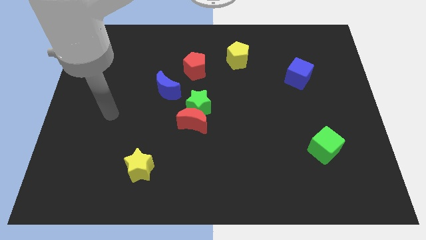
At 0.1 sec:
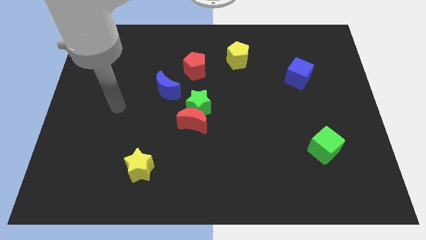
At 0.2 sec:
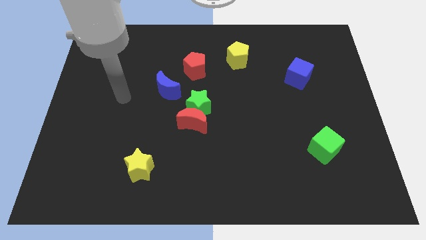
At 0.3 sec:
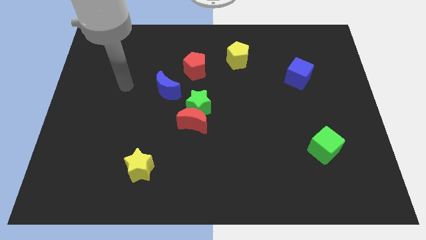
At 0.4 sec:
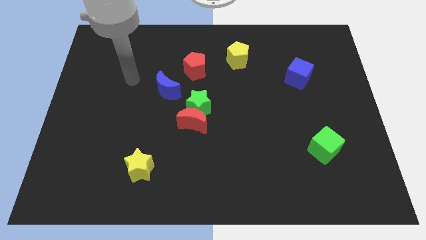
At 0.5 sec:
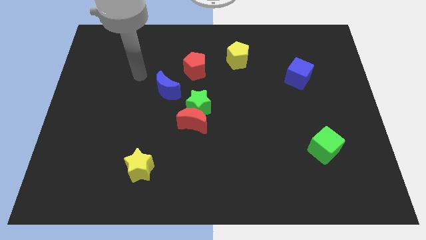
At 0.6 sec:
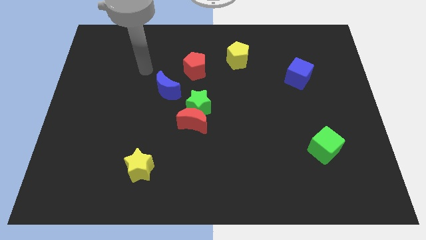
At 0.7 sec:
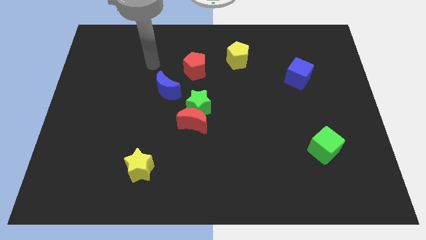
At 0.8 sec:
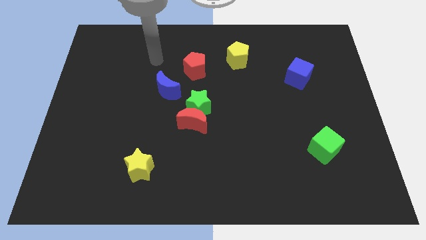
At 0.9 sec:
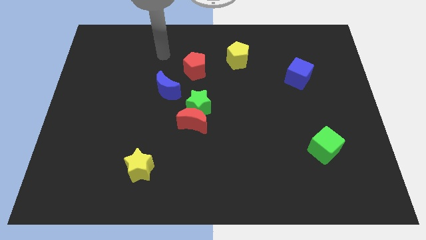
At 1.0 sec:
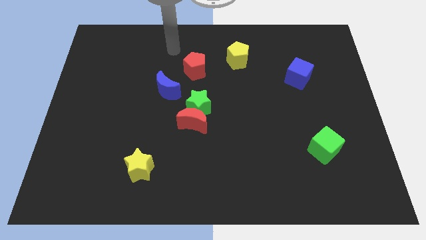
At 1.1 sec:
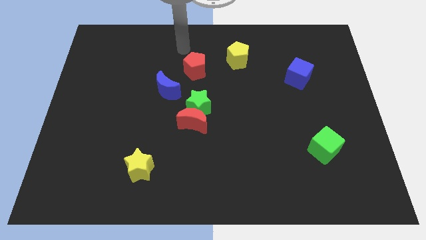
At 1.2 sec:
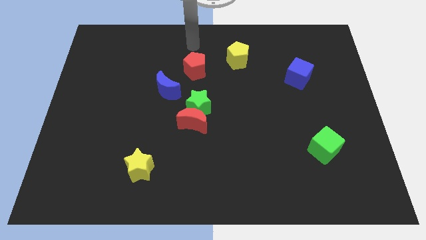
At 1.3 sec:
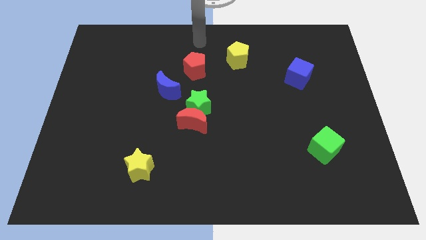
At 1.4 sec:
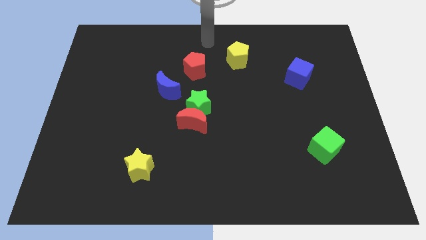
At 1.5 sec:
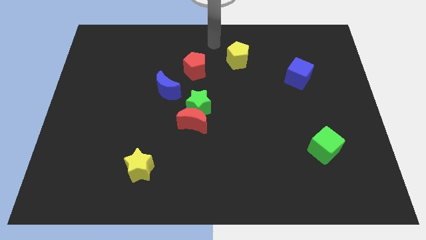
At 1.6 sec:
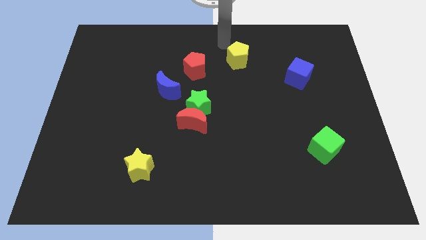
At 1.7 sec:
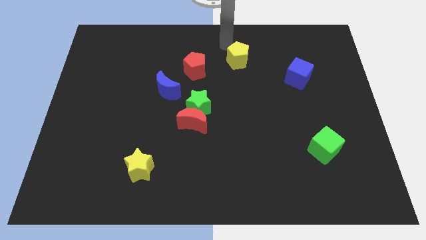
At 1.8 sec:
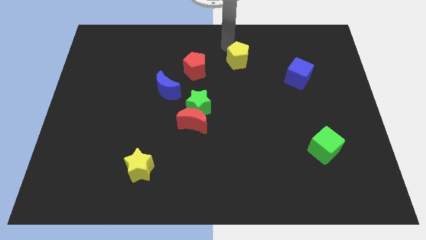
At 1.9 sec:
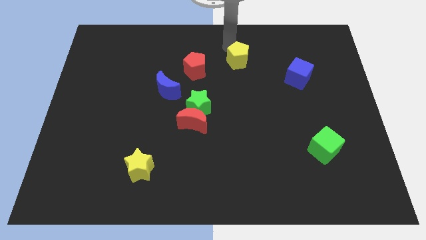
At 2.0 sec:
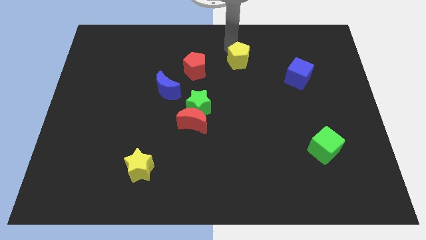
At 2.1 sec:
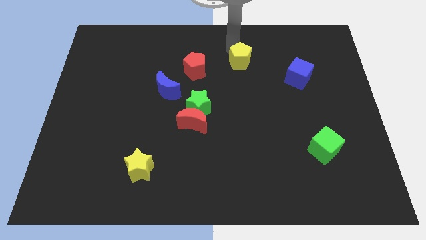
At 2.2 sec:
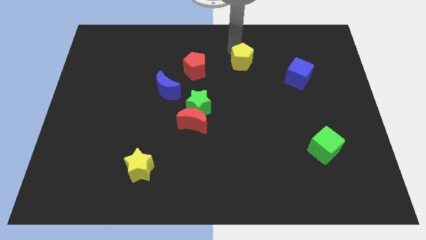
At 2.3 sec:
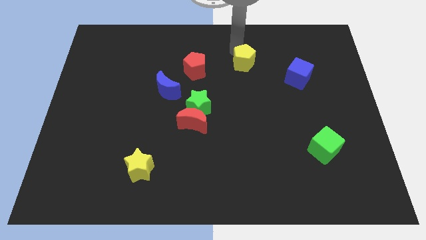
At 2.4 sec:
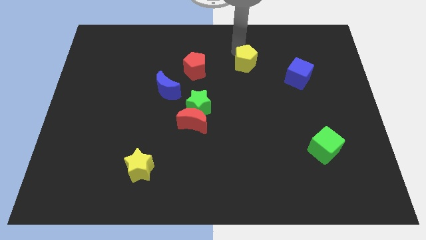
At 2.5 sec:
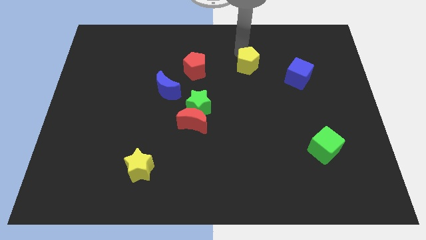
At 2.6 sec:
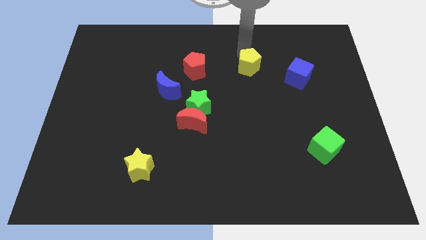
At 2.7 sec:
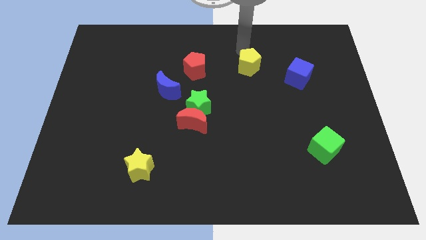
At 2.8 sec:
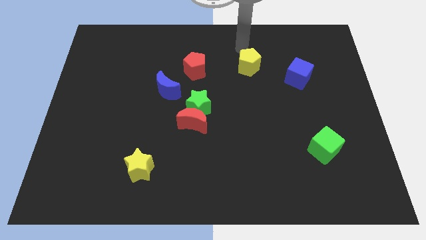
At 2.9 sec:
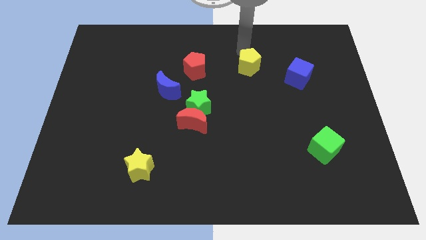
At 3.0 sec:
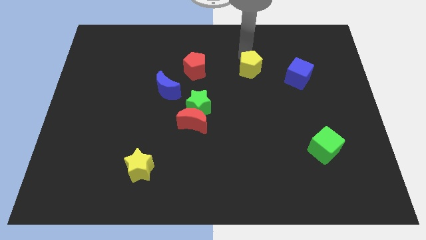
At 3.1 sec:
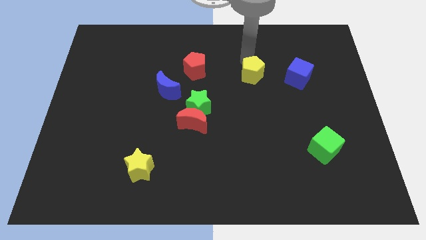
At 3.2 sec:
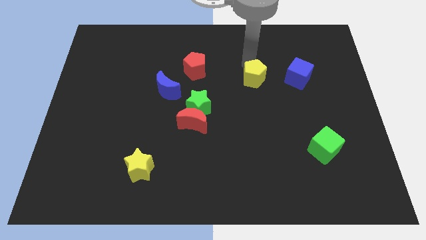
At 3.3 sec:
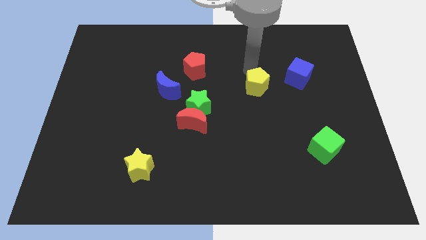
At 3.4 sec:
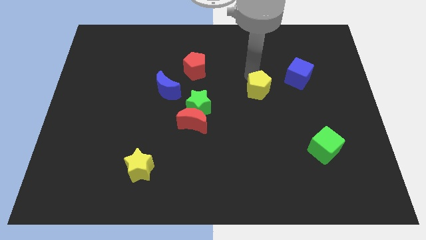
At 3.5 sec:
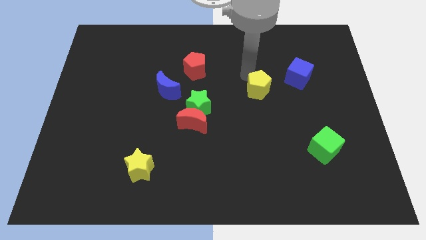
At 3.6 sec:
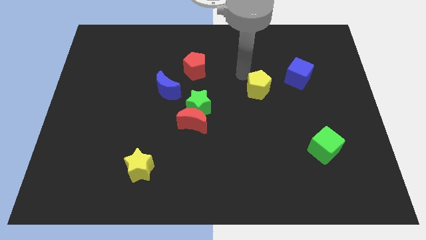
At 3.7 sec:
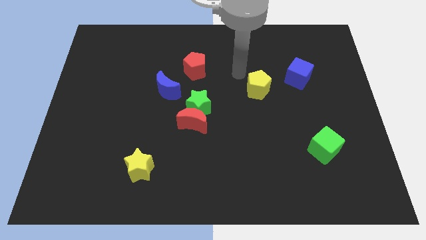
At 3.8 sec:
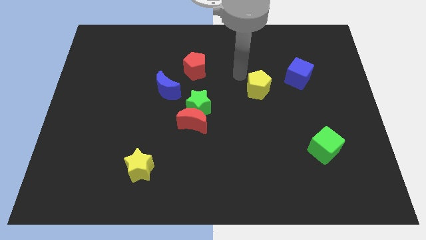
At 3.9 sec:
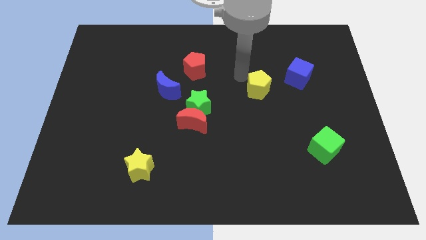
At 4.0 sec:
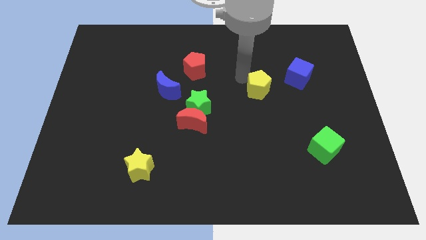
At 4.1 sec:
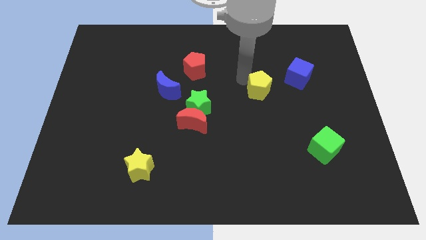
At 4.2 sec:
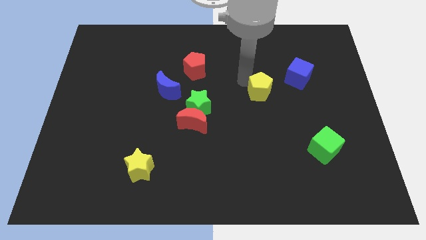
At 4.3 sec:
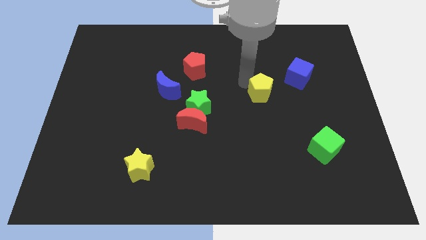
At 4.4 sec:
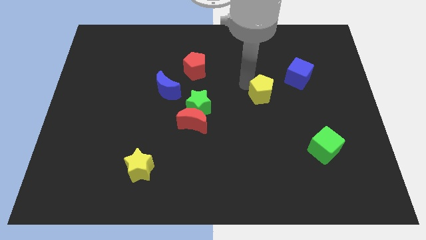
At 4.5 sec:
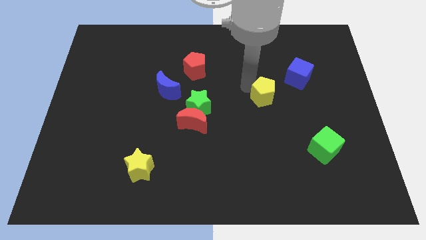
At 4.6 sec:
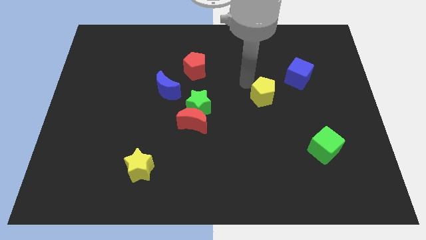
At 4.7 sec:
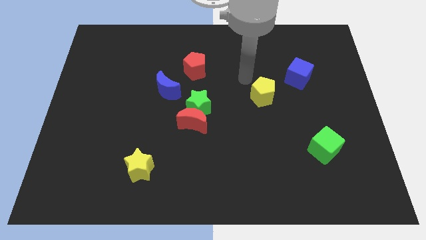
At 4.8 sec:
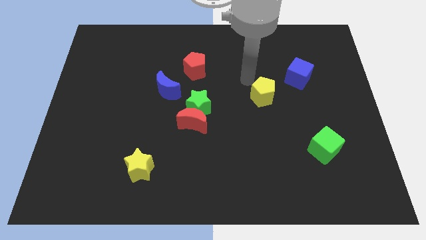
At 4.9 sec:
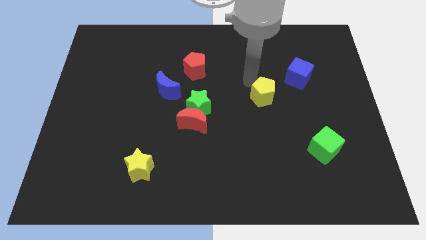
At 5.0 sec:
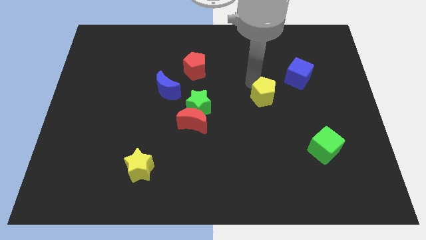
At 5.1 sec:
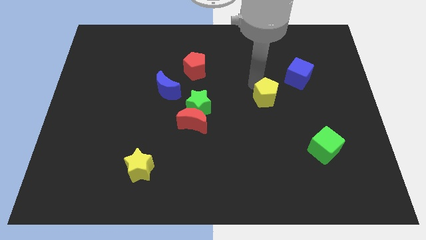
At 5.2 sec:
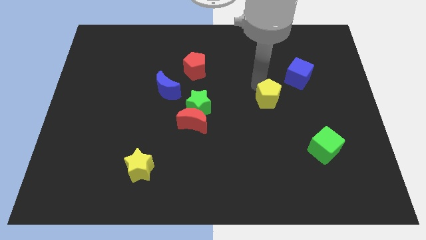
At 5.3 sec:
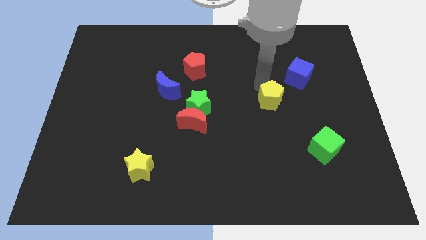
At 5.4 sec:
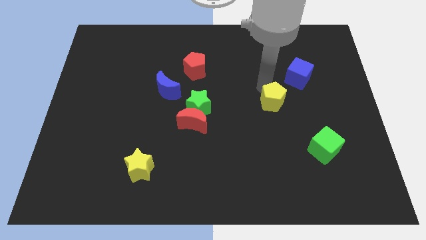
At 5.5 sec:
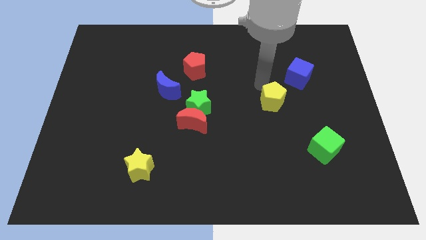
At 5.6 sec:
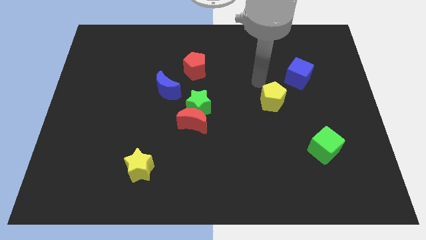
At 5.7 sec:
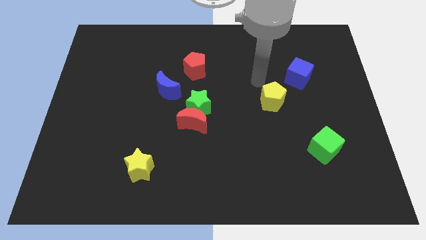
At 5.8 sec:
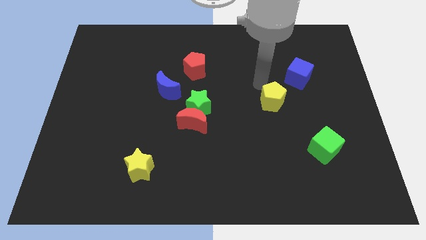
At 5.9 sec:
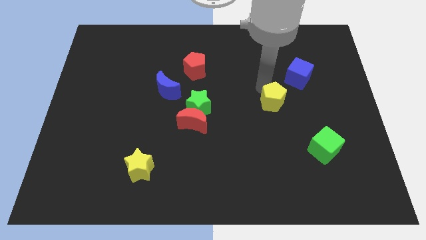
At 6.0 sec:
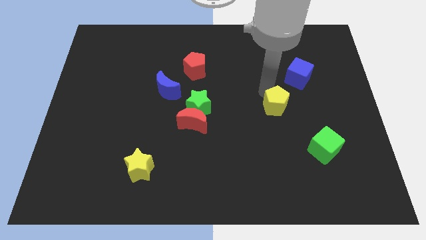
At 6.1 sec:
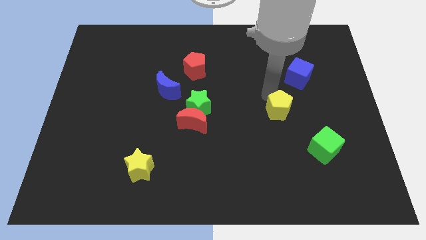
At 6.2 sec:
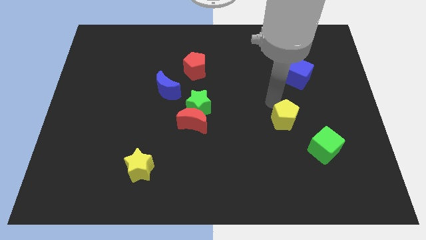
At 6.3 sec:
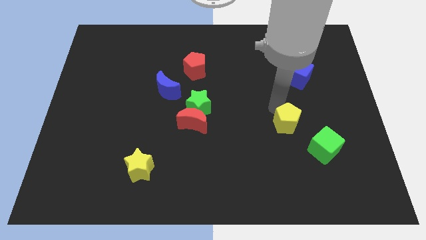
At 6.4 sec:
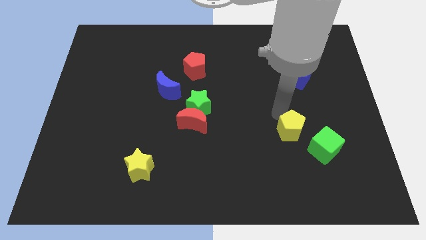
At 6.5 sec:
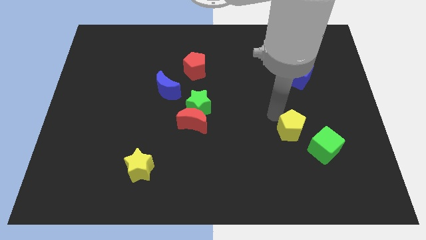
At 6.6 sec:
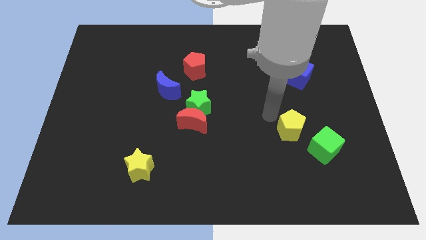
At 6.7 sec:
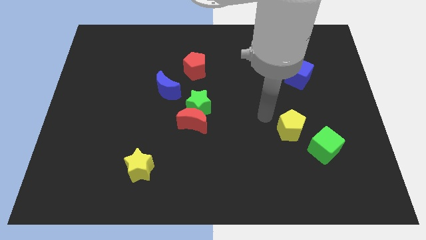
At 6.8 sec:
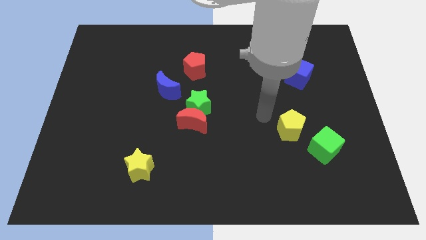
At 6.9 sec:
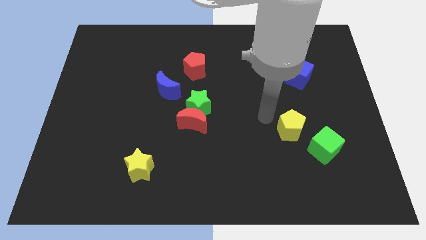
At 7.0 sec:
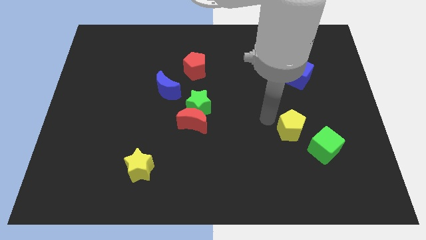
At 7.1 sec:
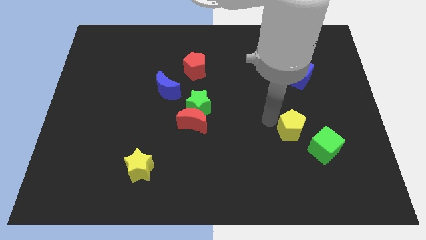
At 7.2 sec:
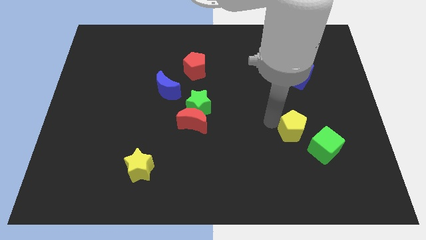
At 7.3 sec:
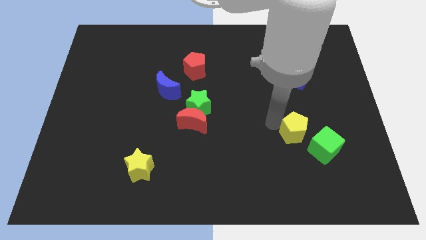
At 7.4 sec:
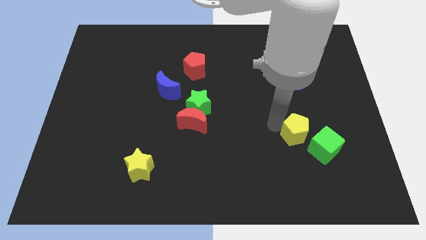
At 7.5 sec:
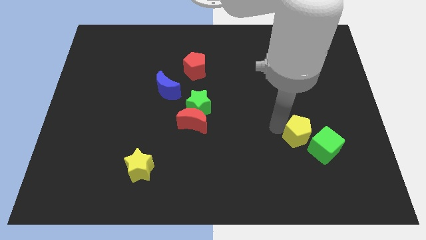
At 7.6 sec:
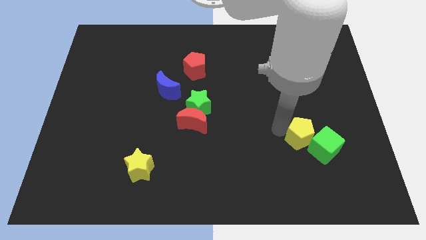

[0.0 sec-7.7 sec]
move the yellow pentagon next to the green cube
